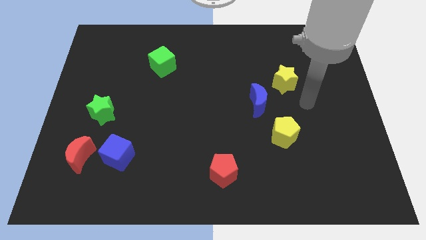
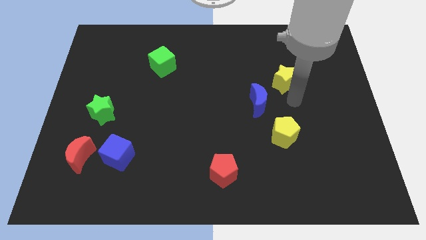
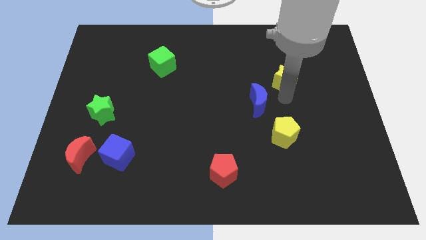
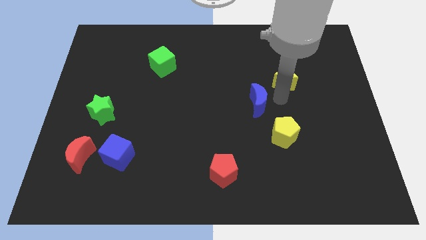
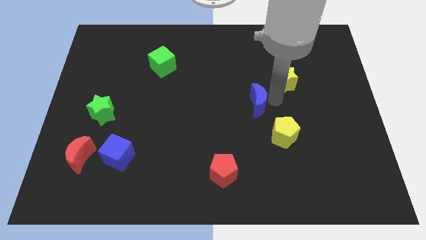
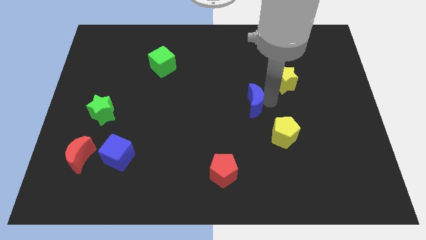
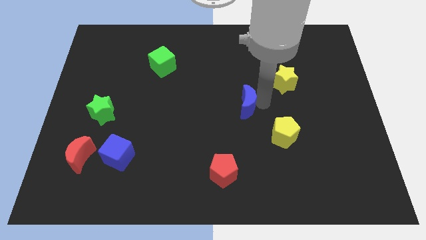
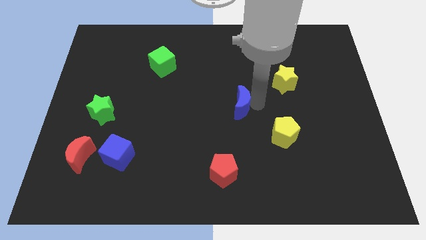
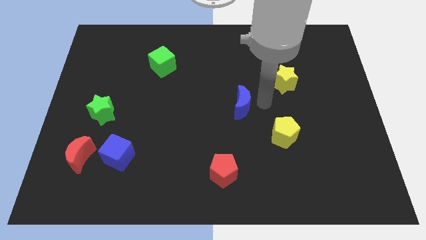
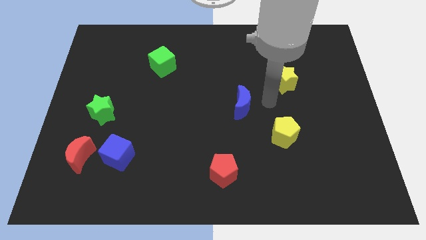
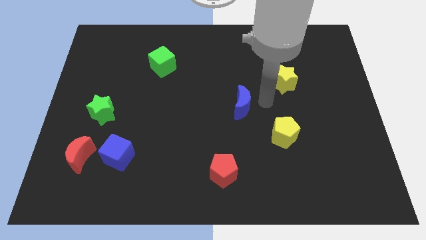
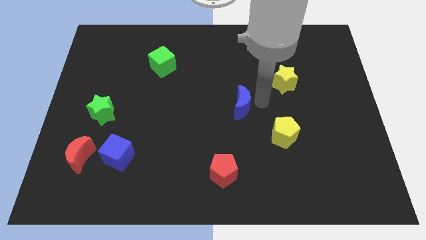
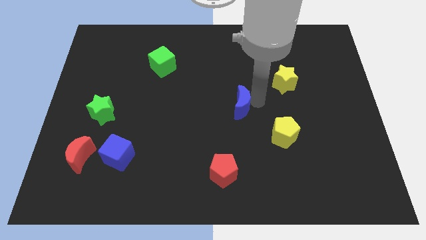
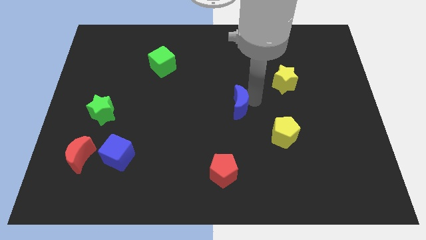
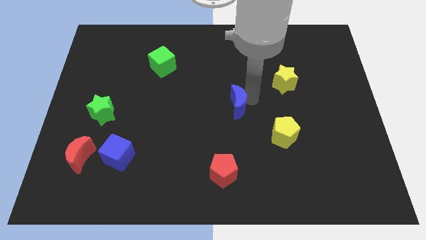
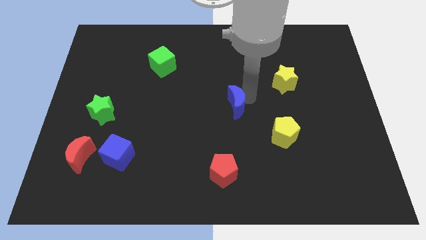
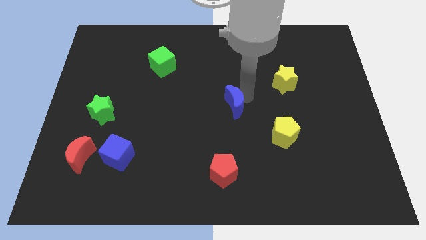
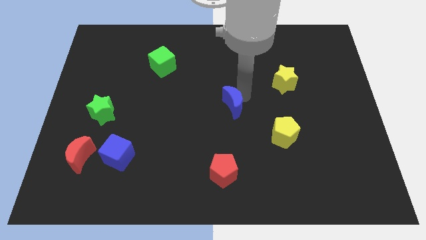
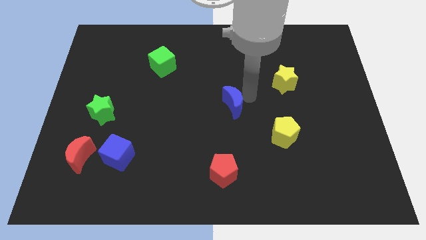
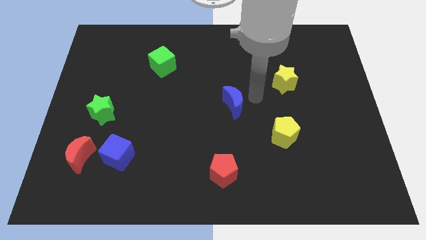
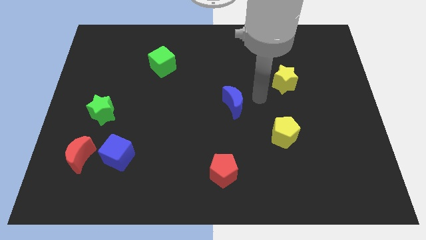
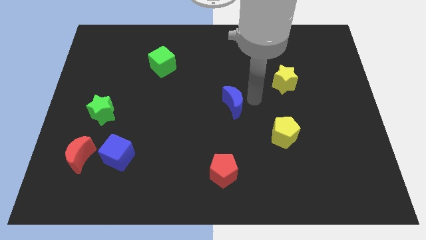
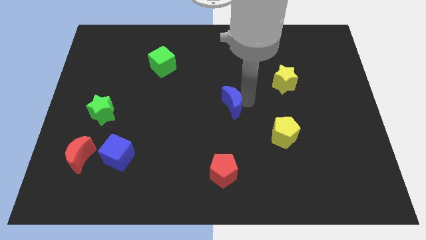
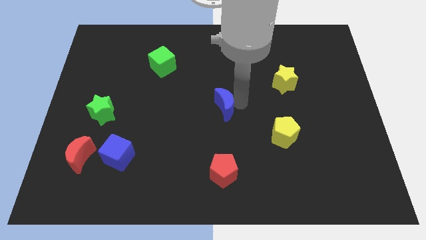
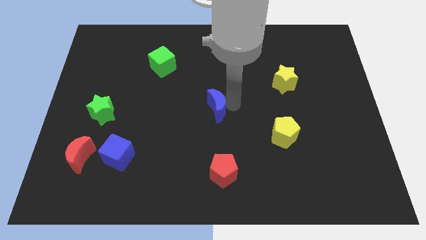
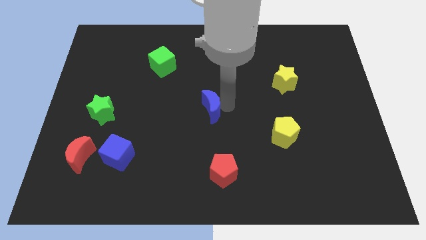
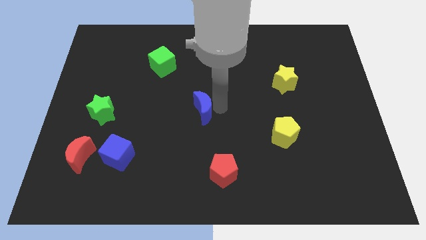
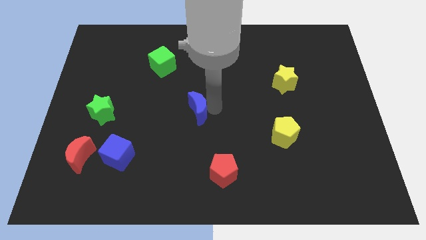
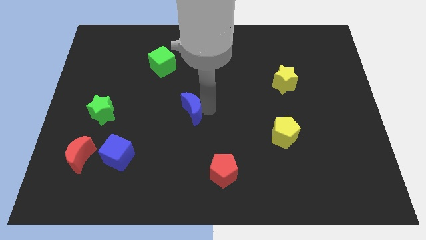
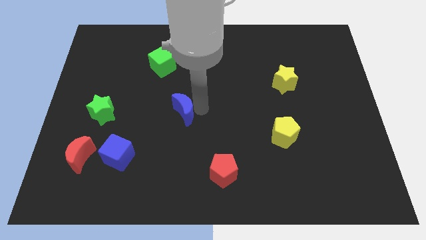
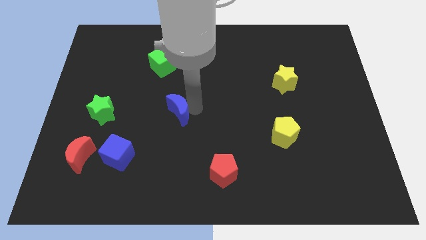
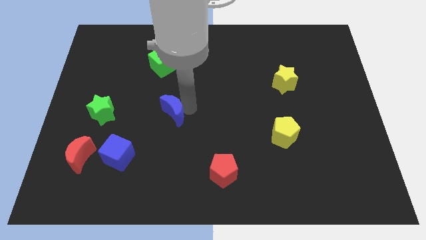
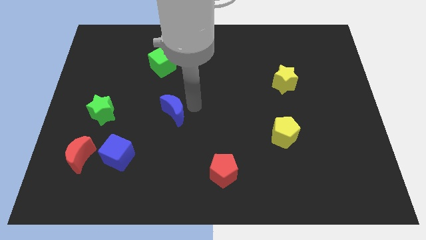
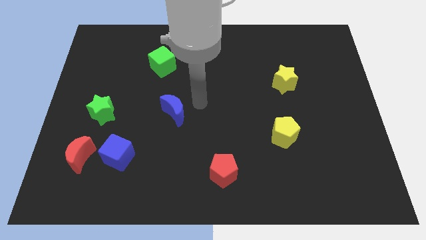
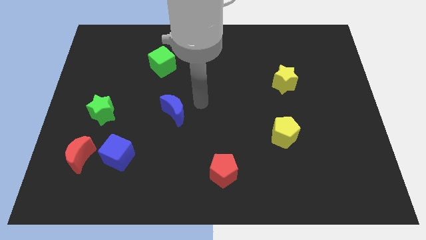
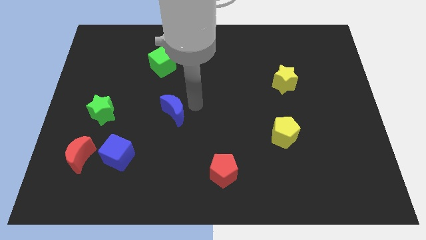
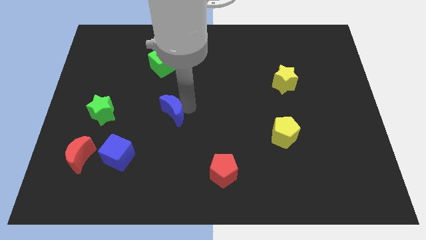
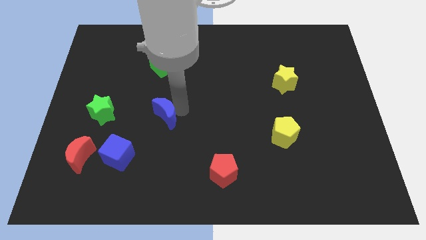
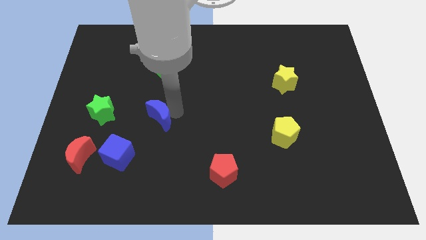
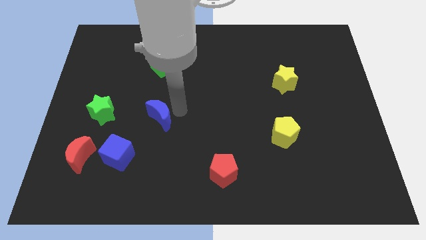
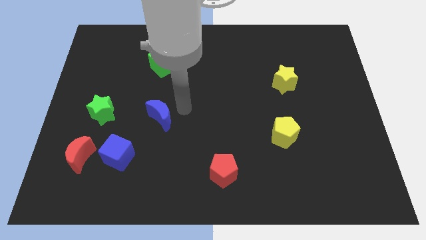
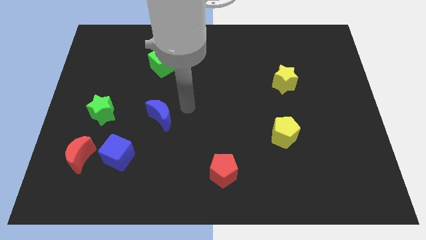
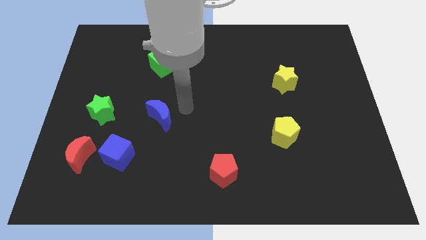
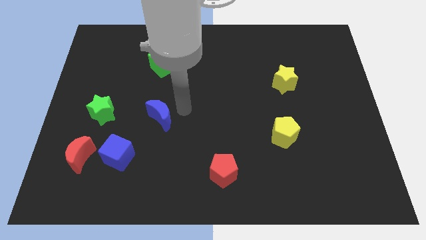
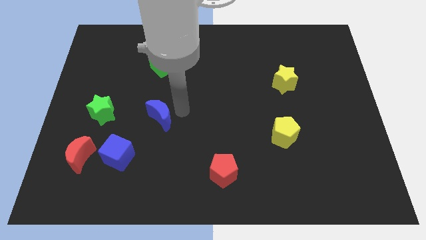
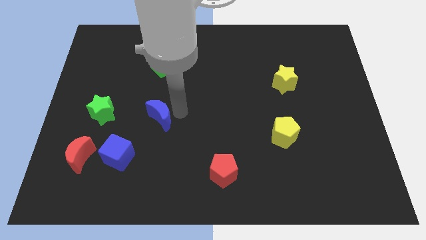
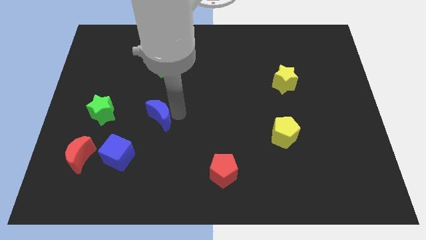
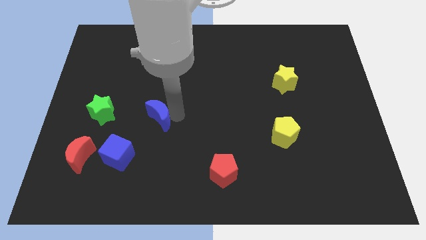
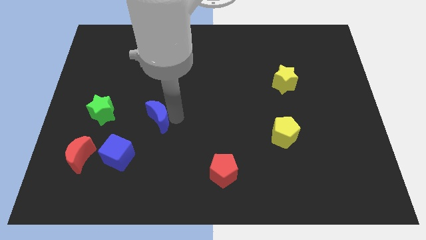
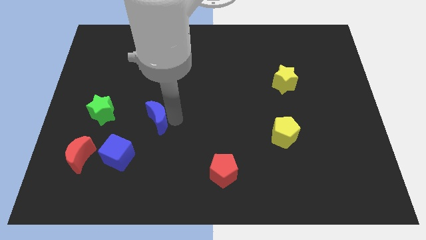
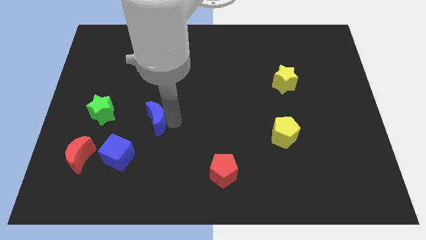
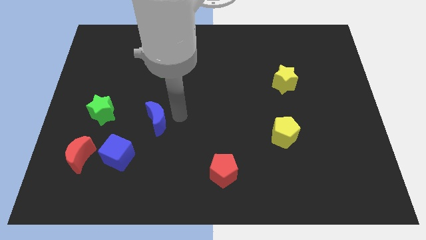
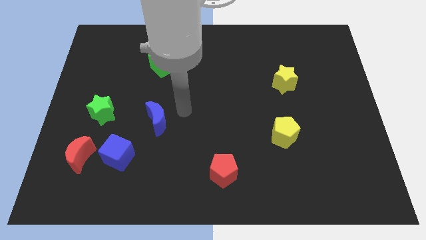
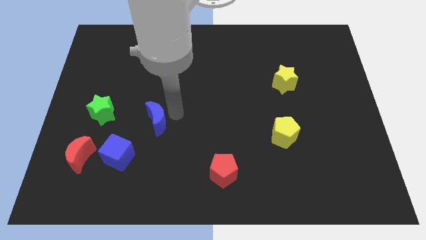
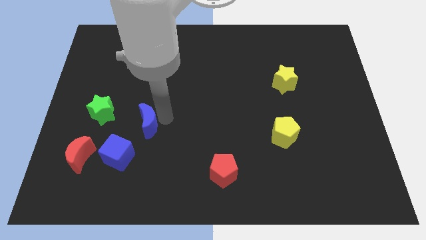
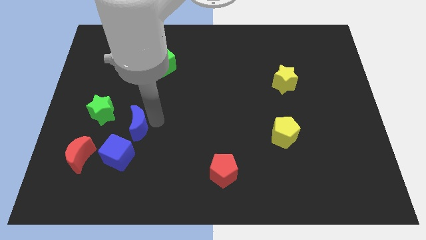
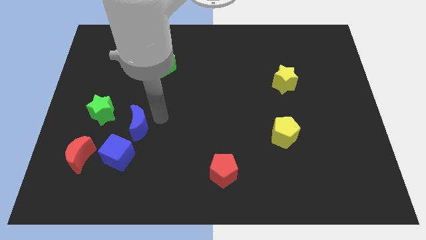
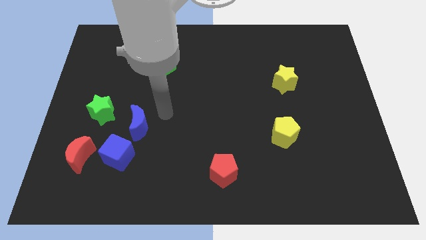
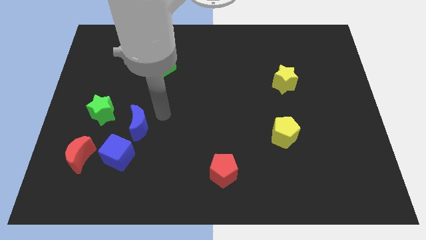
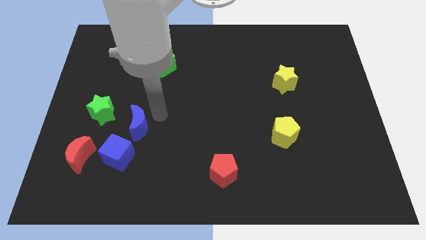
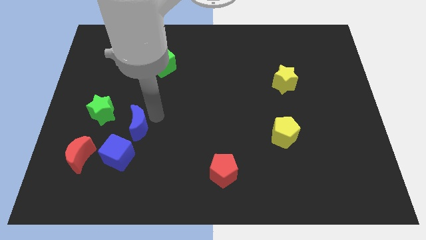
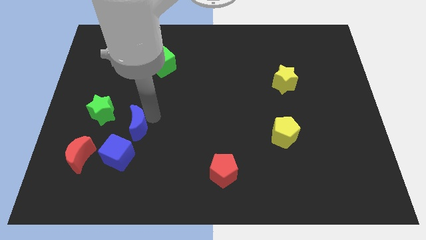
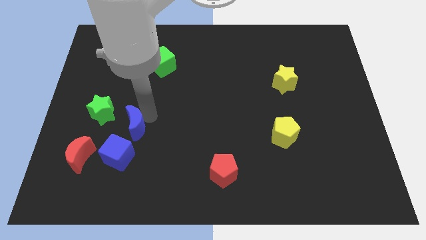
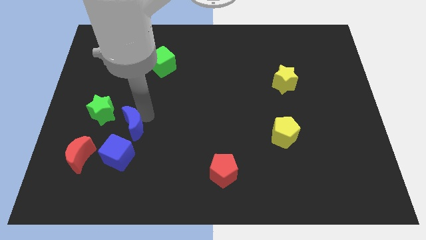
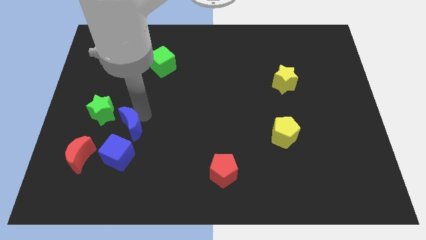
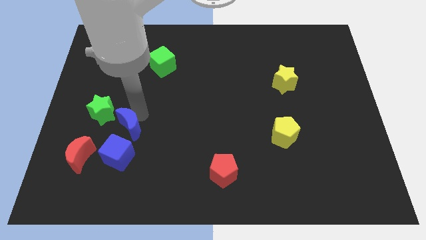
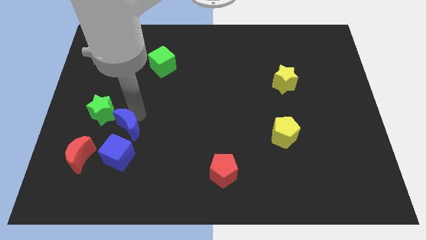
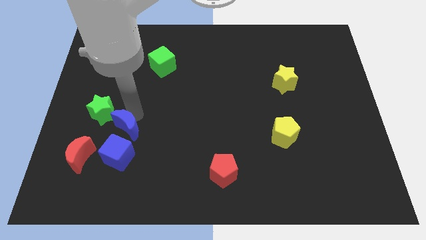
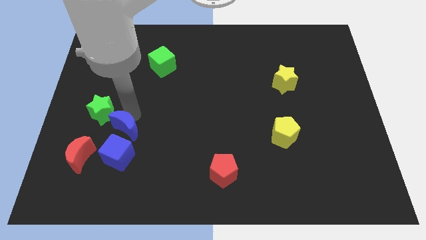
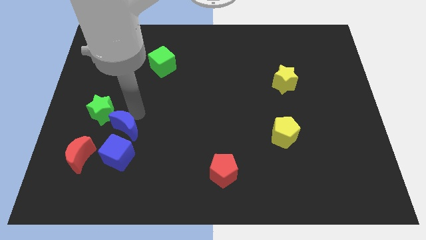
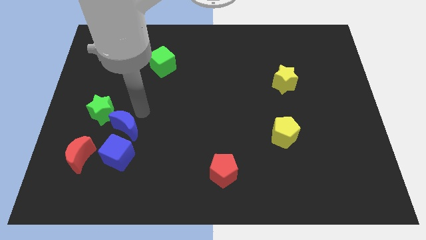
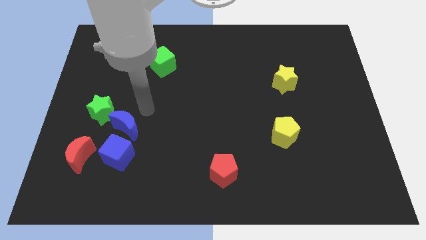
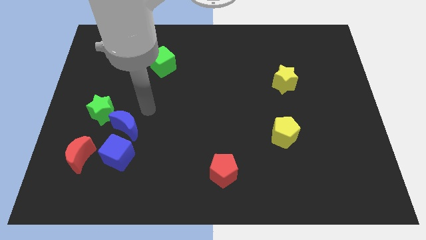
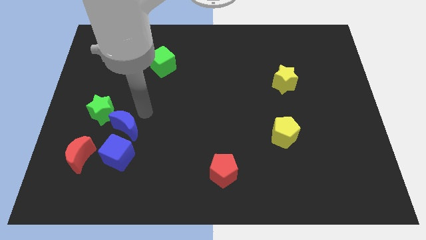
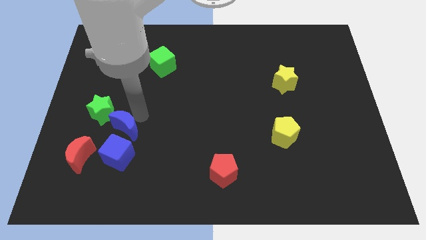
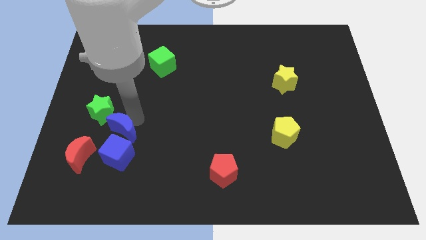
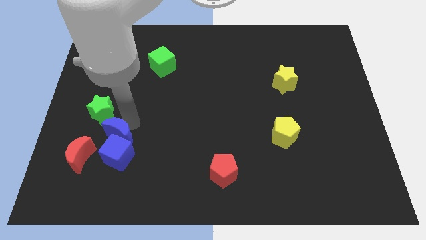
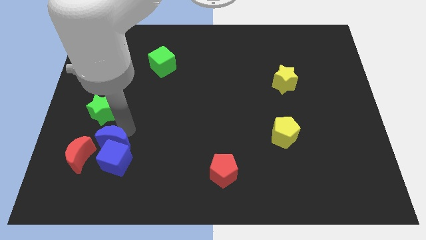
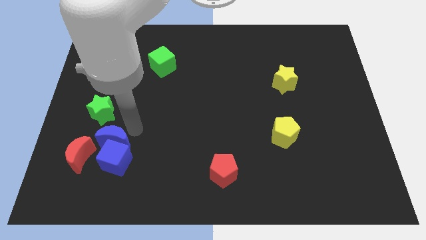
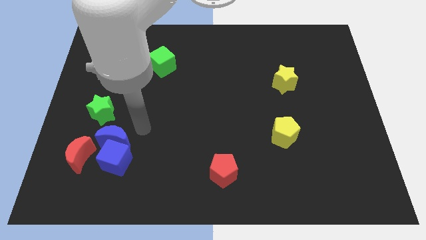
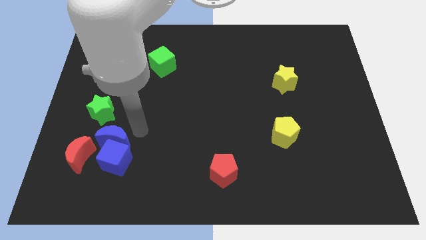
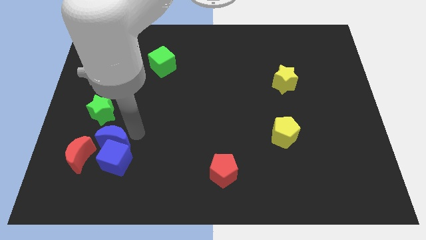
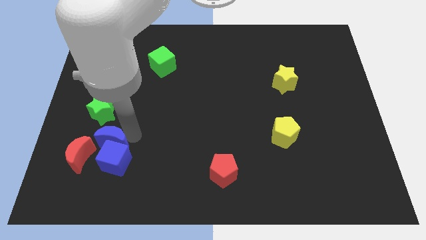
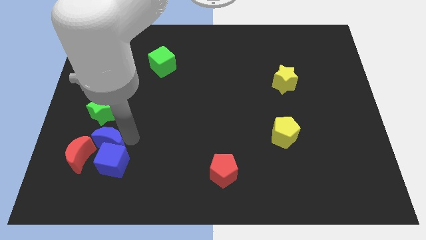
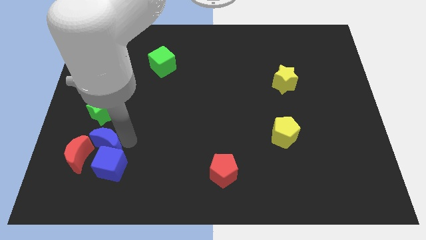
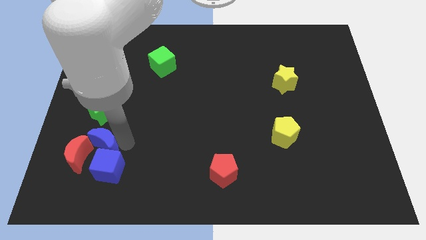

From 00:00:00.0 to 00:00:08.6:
move the blue moon next to the red moon
